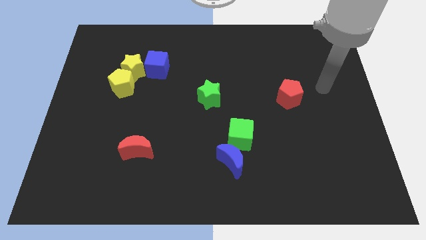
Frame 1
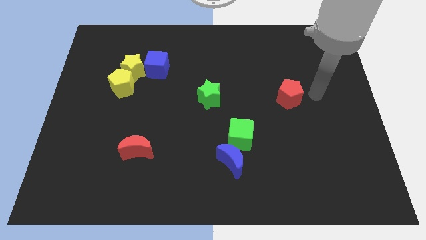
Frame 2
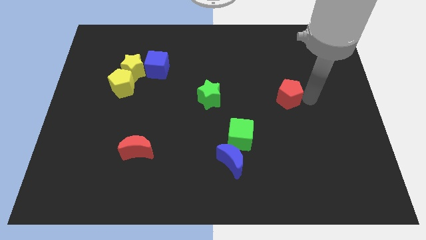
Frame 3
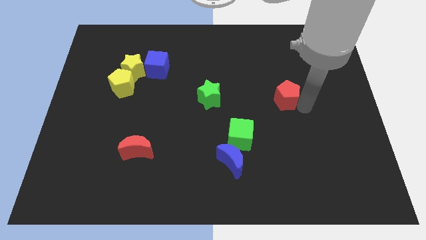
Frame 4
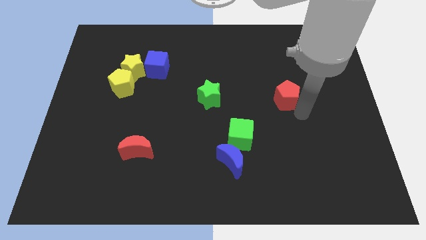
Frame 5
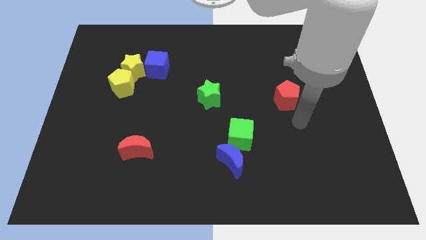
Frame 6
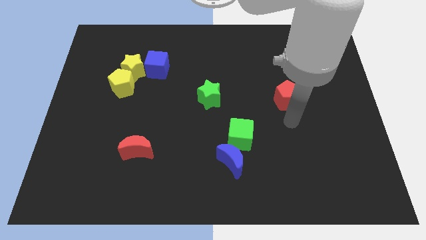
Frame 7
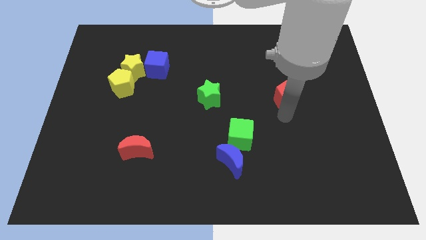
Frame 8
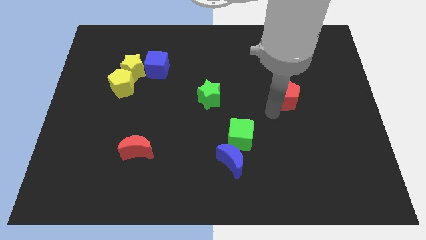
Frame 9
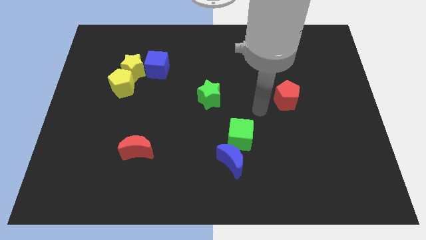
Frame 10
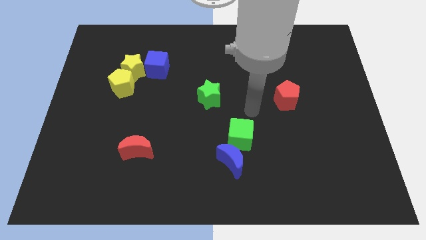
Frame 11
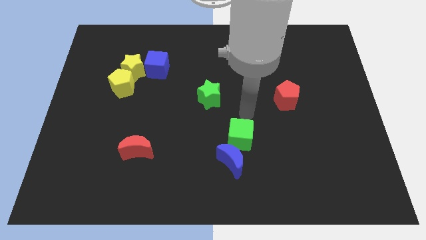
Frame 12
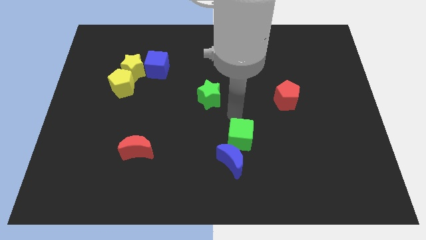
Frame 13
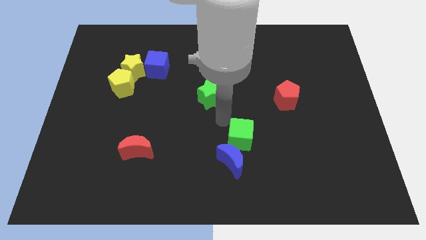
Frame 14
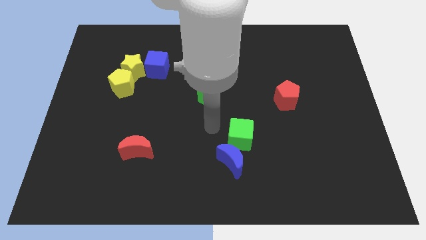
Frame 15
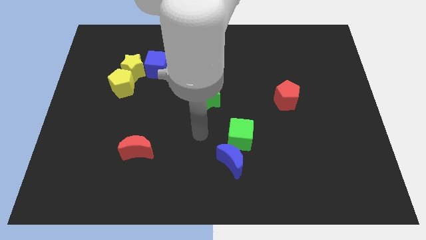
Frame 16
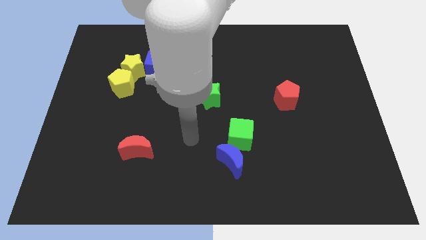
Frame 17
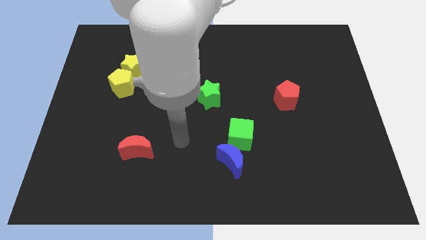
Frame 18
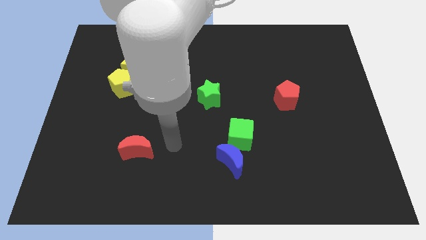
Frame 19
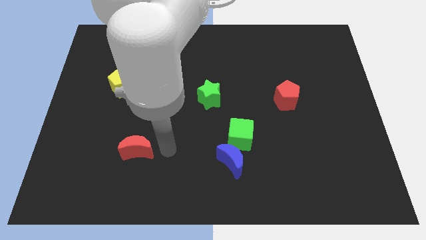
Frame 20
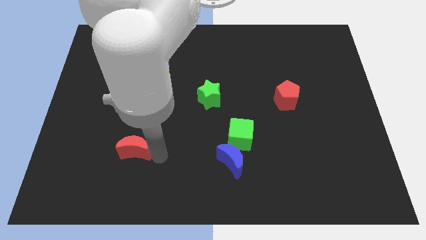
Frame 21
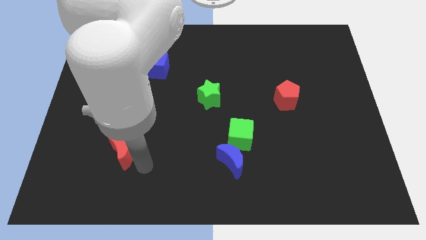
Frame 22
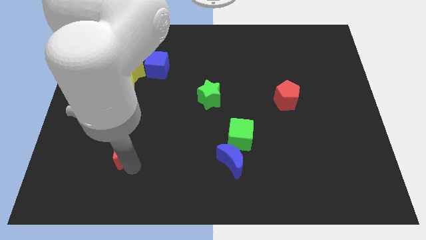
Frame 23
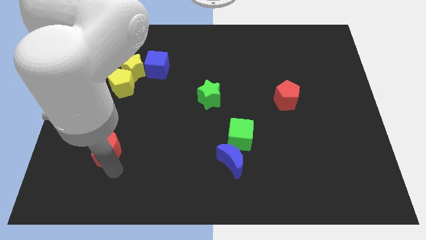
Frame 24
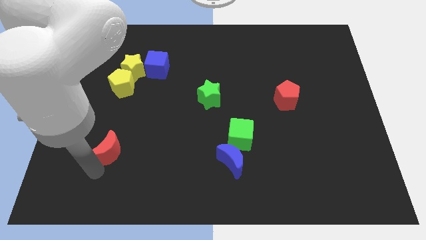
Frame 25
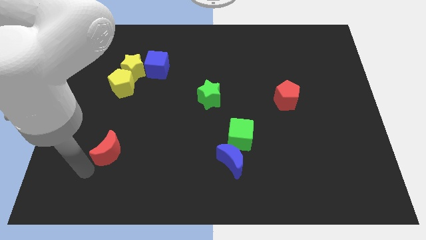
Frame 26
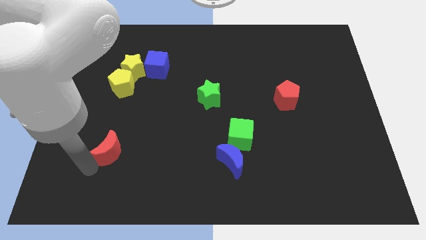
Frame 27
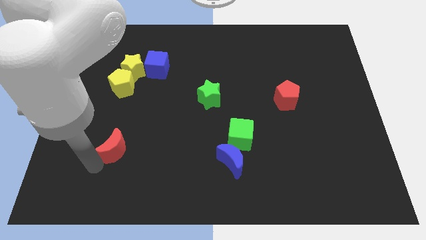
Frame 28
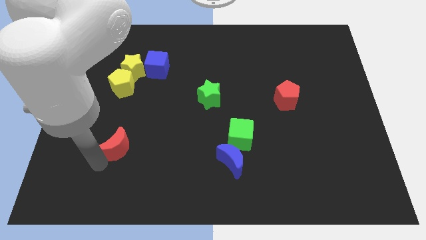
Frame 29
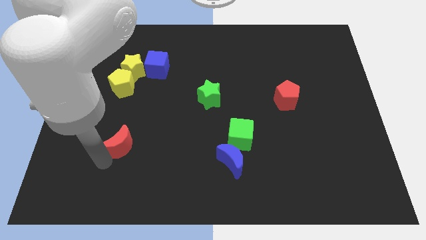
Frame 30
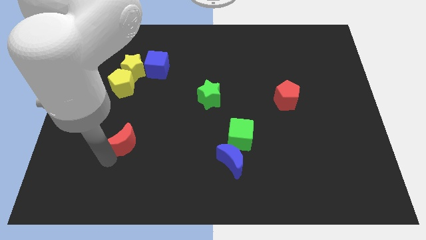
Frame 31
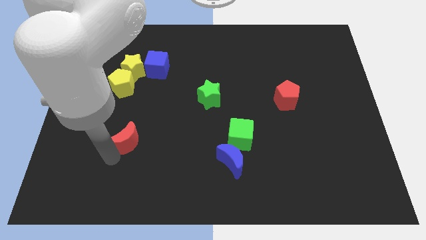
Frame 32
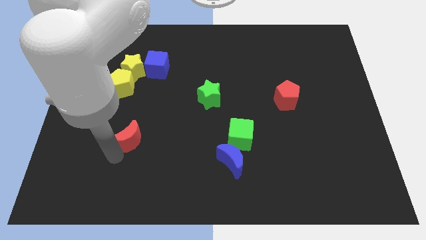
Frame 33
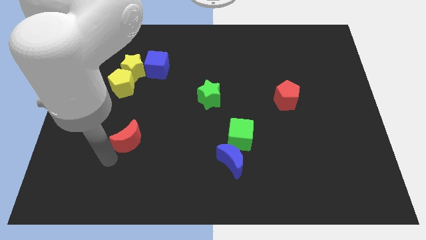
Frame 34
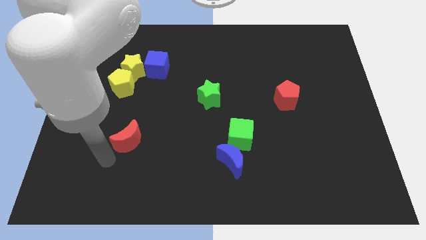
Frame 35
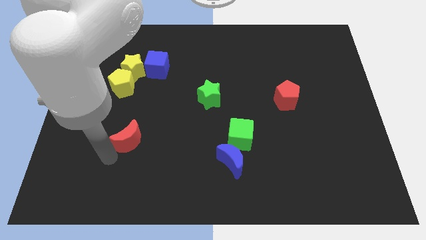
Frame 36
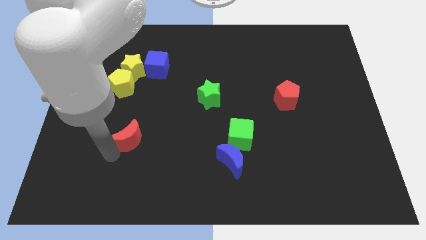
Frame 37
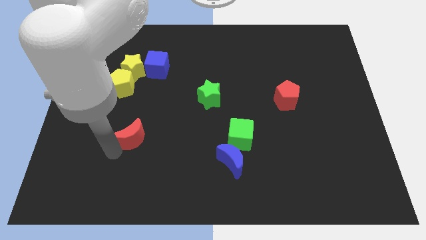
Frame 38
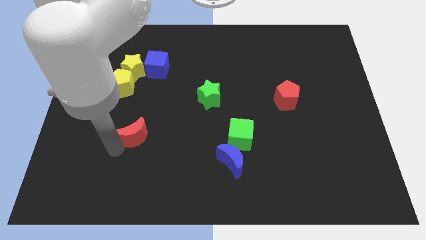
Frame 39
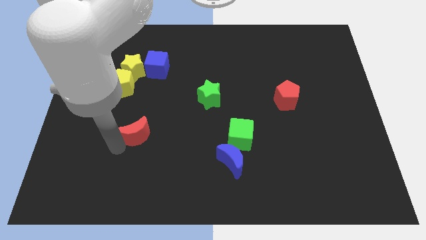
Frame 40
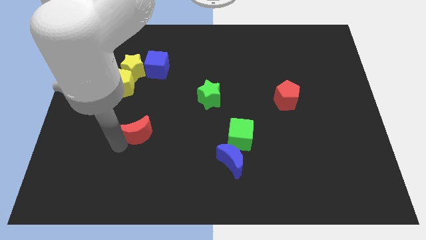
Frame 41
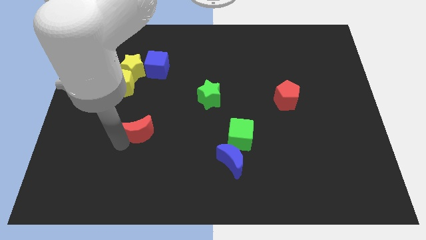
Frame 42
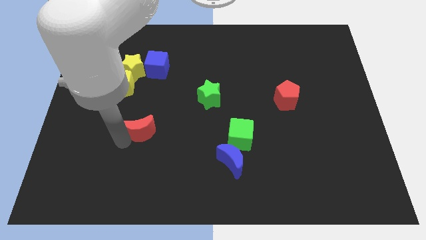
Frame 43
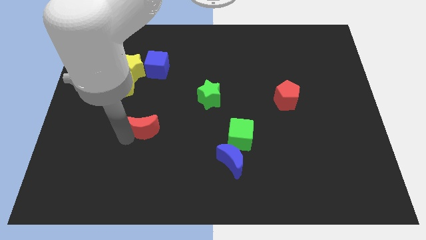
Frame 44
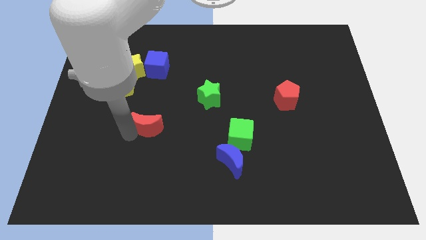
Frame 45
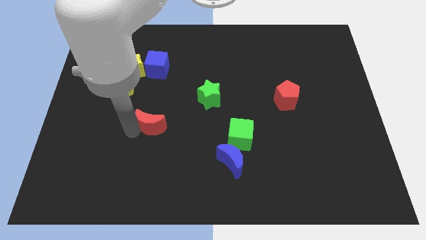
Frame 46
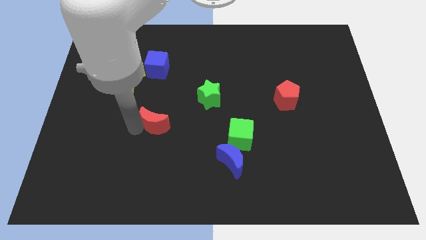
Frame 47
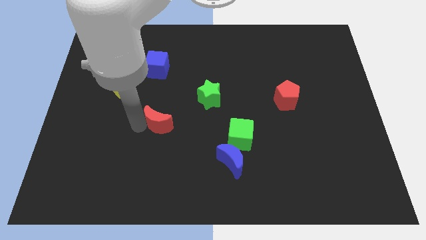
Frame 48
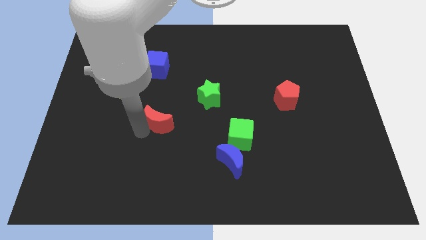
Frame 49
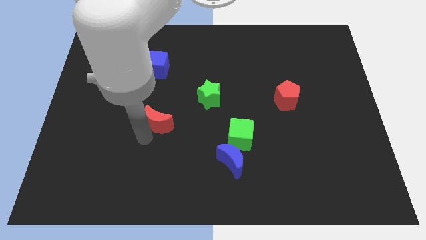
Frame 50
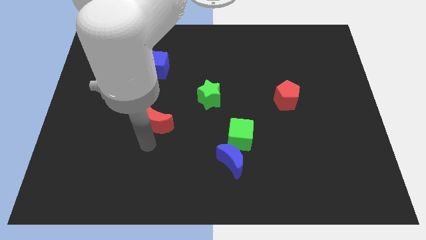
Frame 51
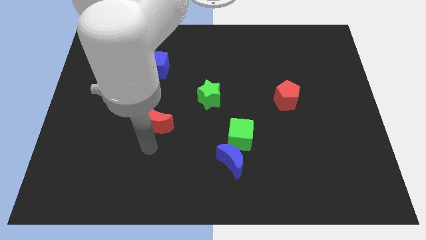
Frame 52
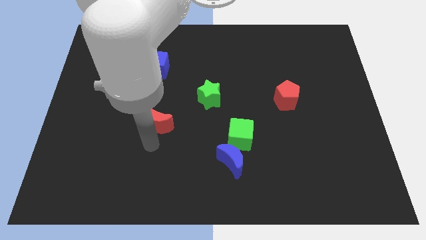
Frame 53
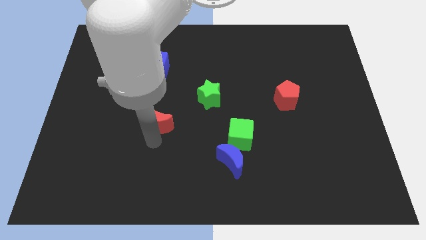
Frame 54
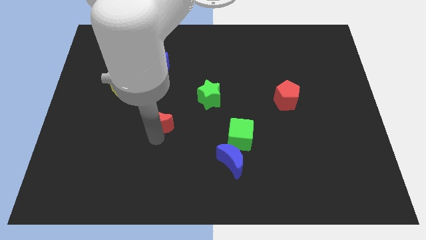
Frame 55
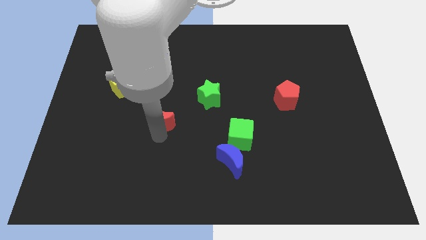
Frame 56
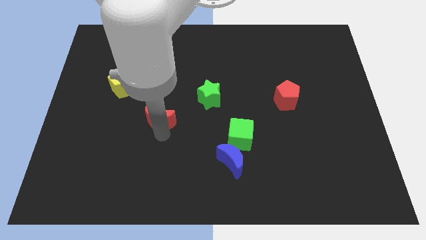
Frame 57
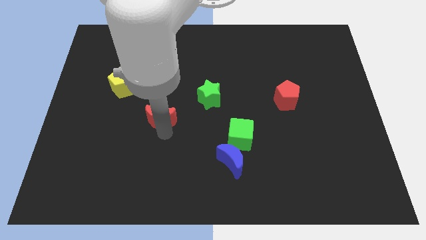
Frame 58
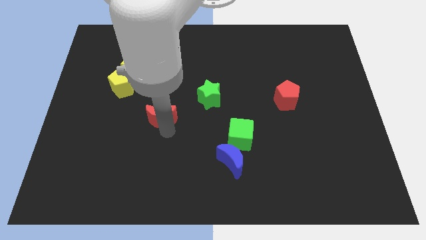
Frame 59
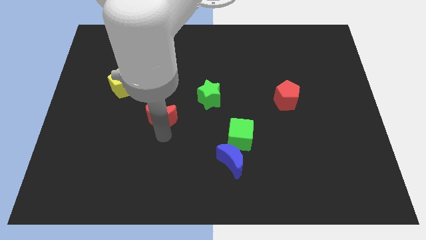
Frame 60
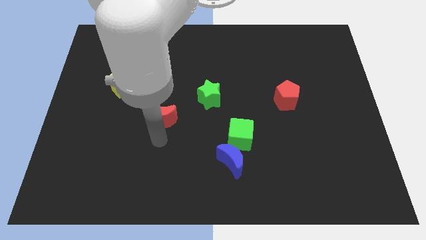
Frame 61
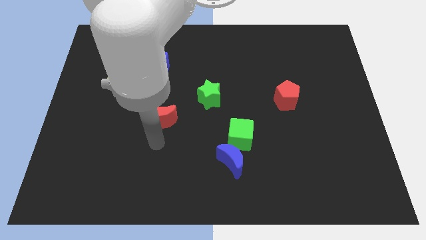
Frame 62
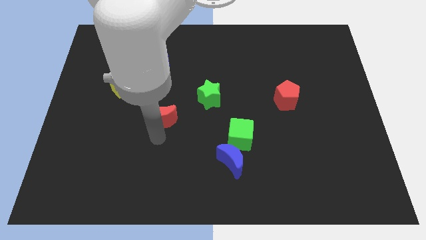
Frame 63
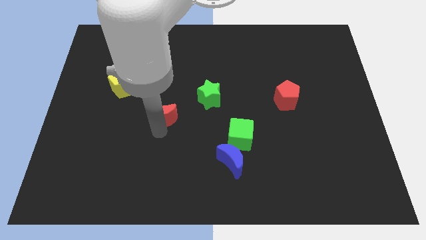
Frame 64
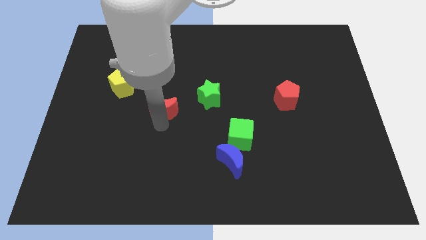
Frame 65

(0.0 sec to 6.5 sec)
push the red moon to the left of the green star

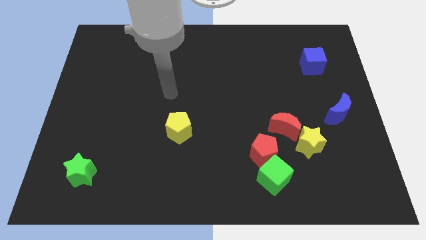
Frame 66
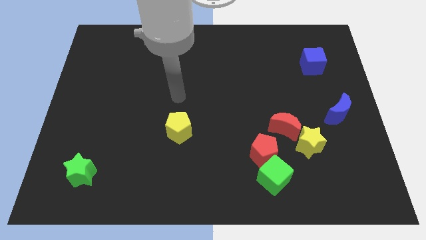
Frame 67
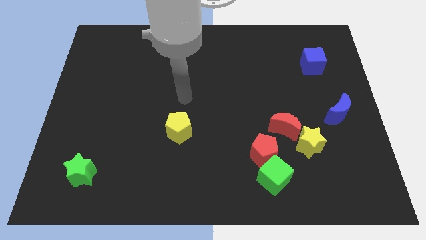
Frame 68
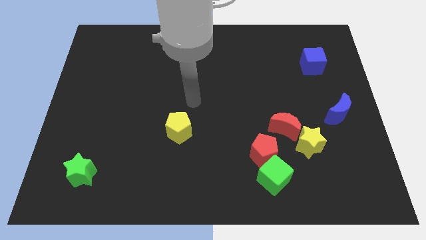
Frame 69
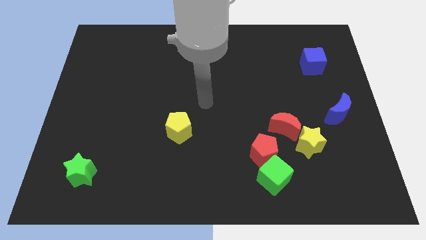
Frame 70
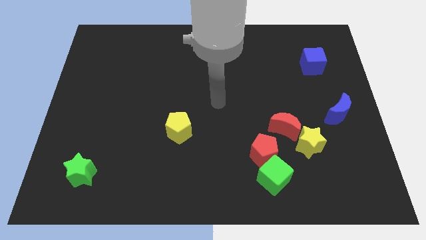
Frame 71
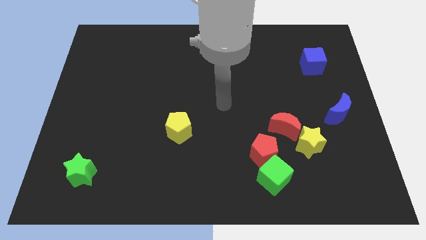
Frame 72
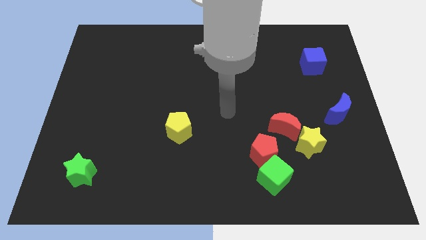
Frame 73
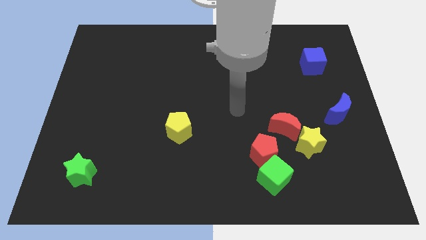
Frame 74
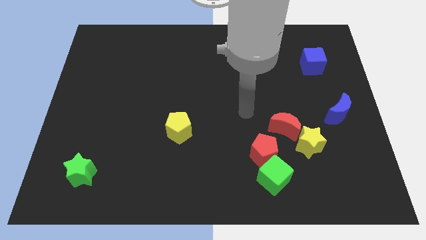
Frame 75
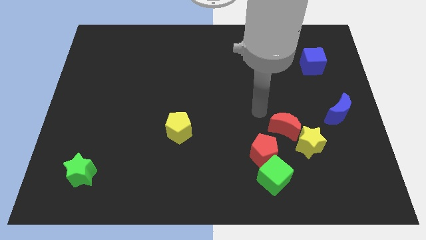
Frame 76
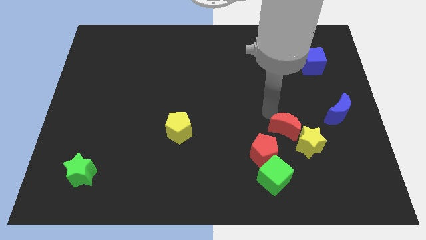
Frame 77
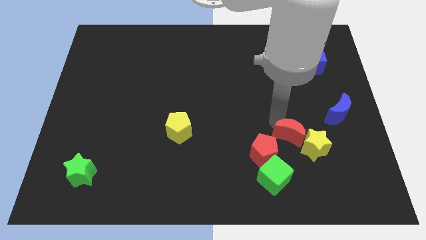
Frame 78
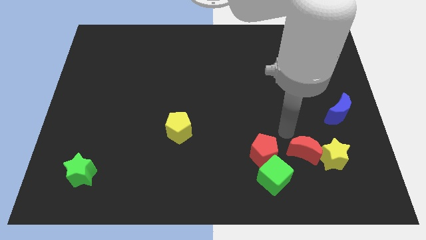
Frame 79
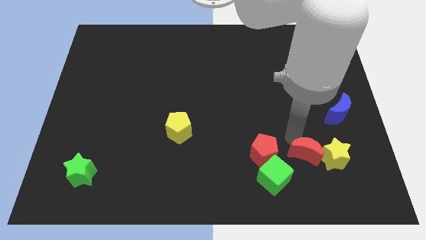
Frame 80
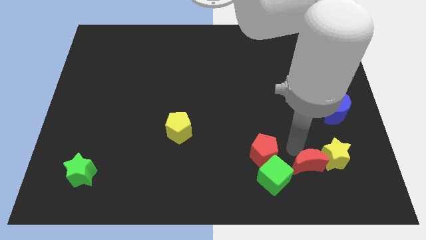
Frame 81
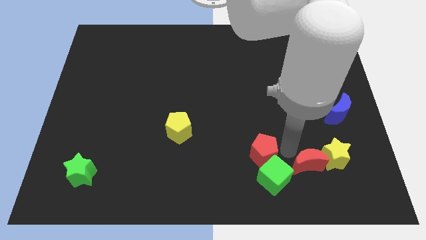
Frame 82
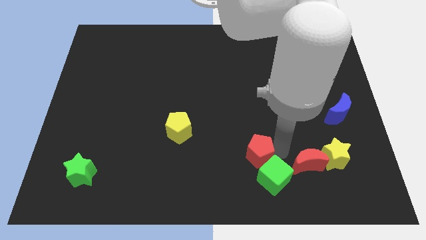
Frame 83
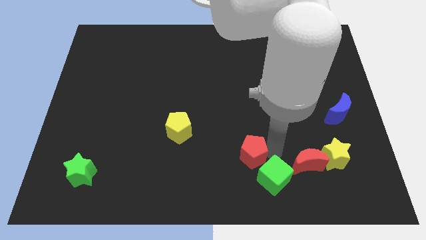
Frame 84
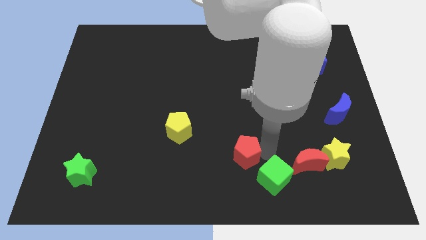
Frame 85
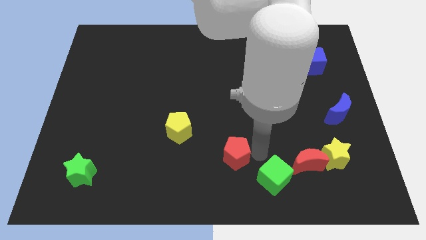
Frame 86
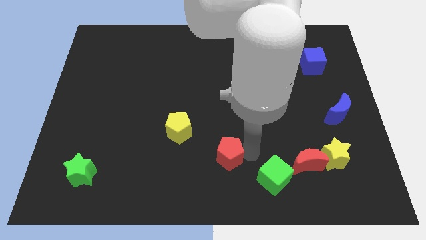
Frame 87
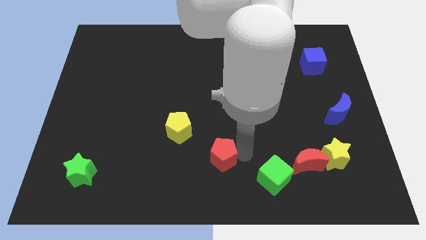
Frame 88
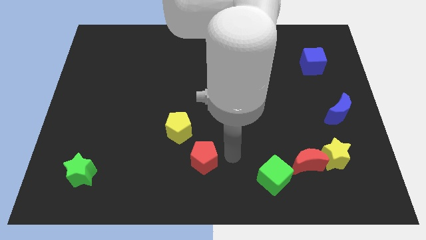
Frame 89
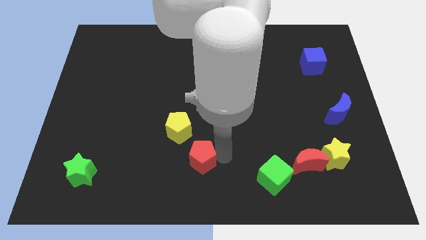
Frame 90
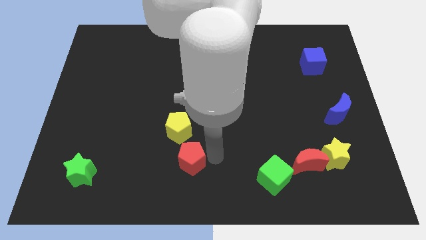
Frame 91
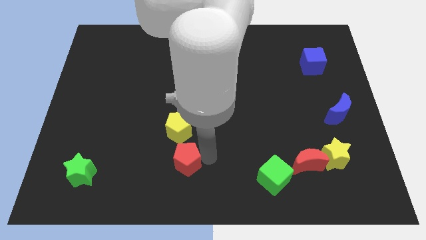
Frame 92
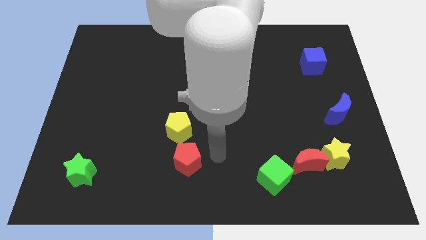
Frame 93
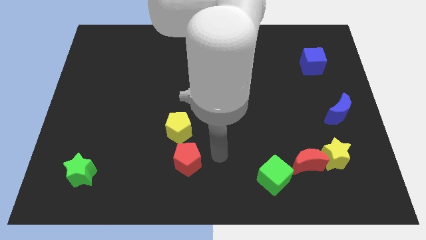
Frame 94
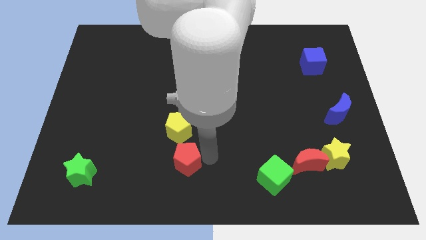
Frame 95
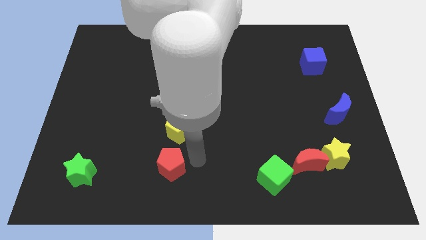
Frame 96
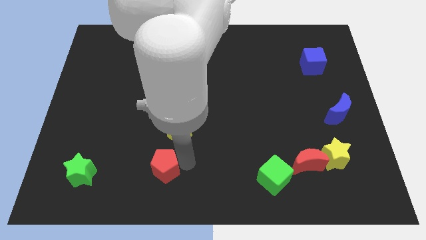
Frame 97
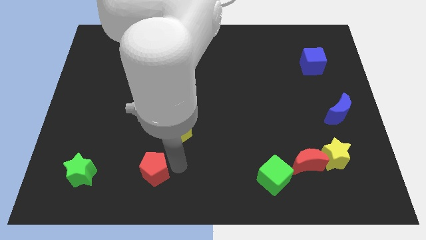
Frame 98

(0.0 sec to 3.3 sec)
push the red pentagon to the right of the green star
